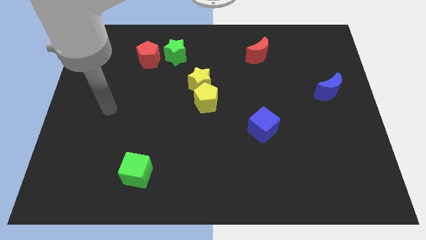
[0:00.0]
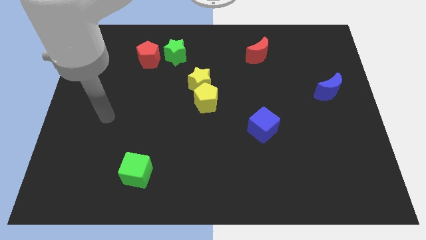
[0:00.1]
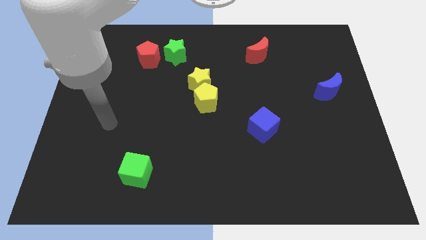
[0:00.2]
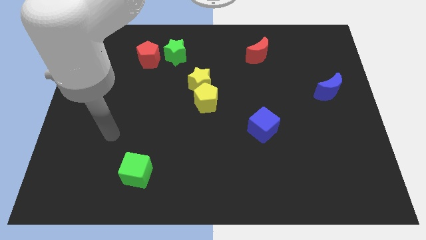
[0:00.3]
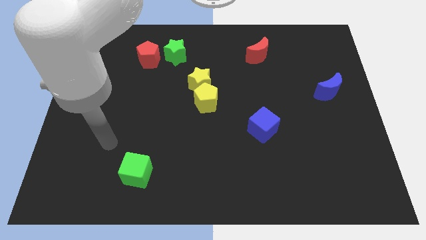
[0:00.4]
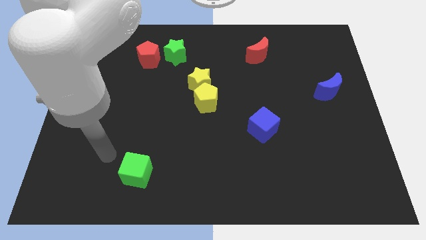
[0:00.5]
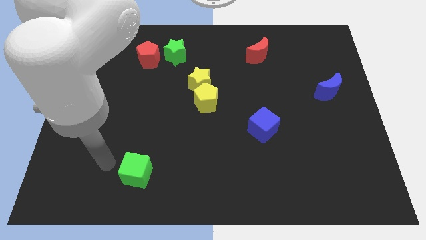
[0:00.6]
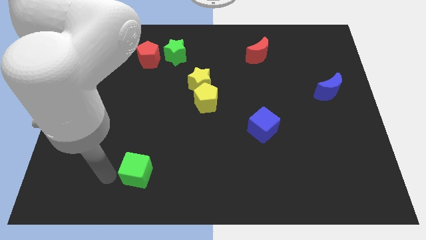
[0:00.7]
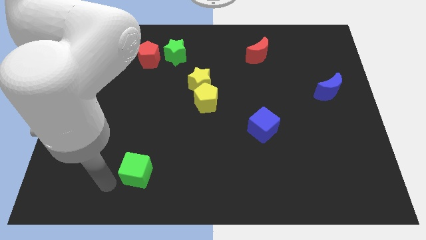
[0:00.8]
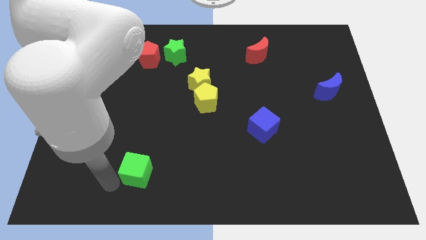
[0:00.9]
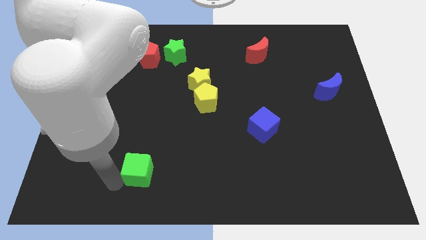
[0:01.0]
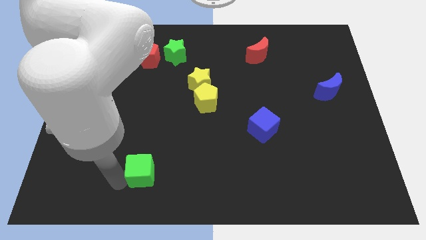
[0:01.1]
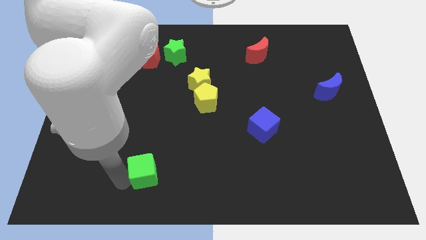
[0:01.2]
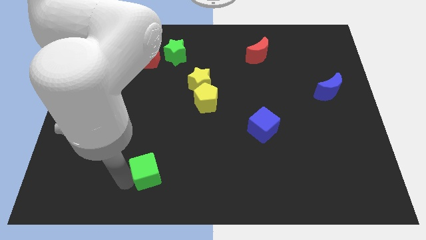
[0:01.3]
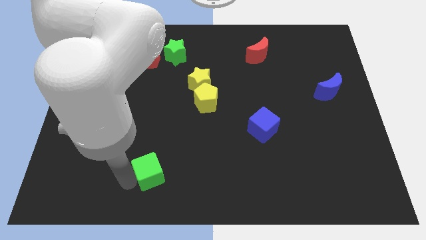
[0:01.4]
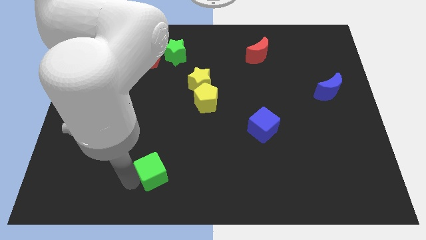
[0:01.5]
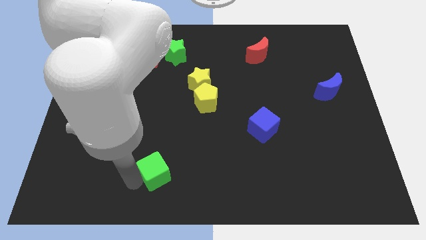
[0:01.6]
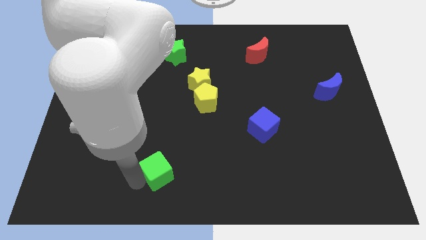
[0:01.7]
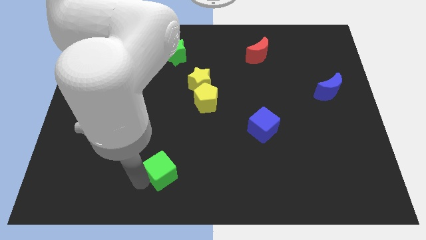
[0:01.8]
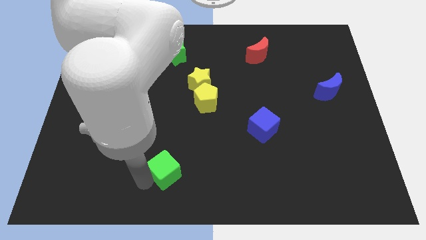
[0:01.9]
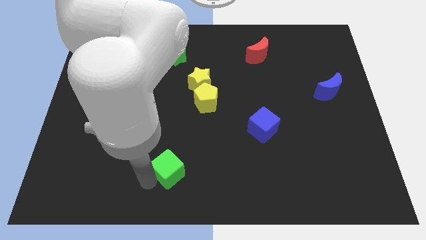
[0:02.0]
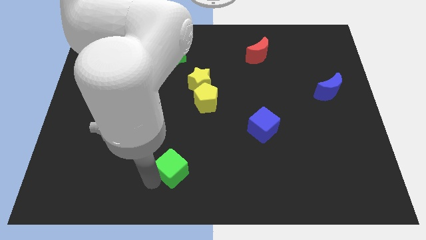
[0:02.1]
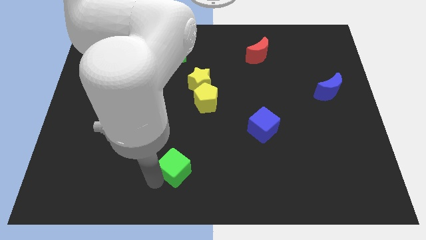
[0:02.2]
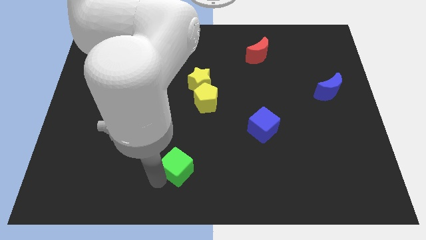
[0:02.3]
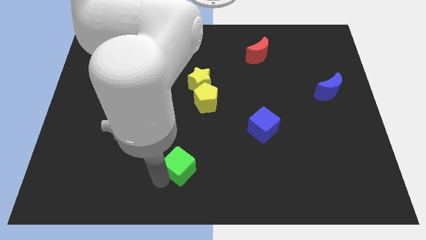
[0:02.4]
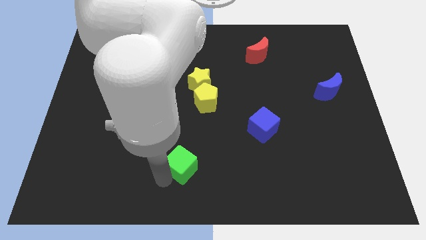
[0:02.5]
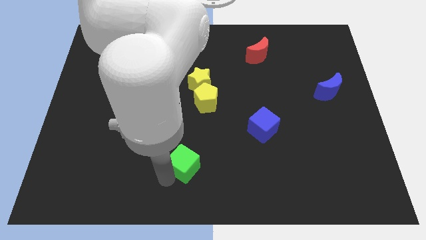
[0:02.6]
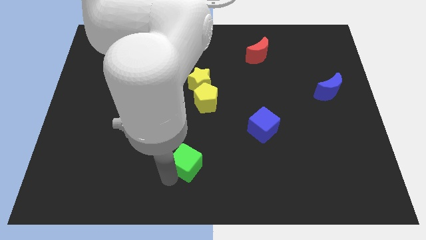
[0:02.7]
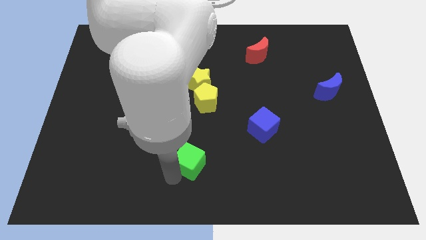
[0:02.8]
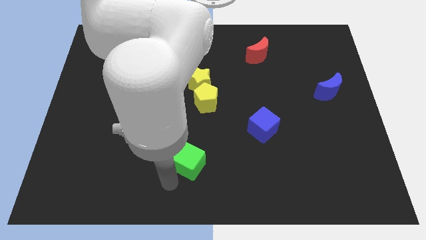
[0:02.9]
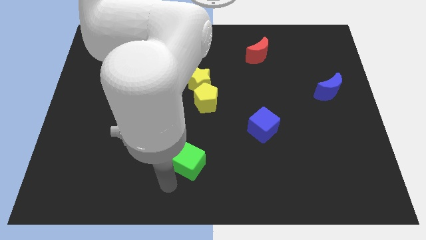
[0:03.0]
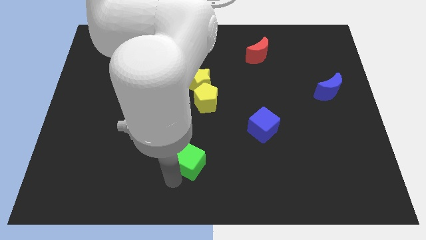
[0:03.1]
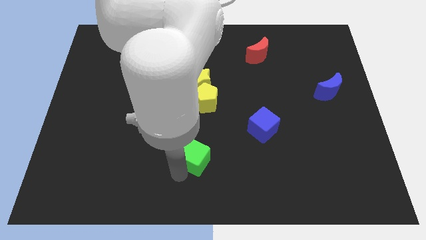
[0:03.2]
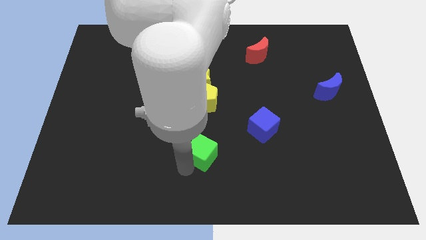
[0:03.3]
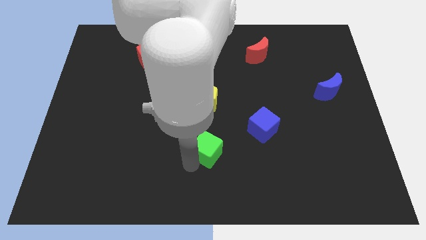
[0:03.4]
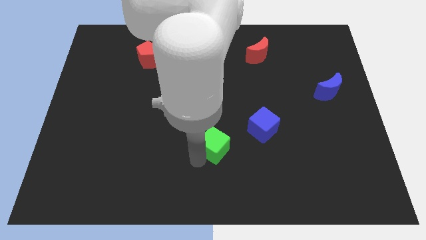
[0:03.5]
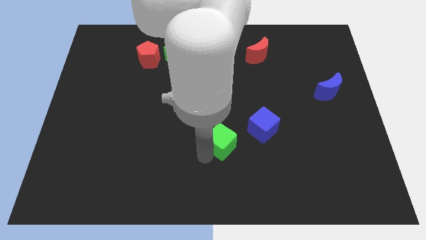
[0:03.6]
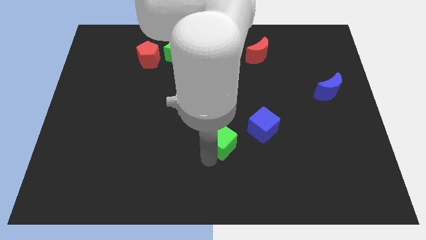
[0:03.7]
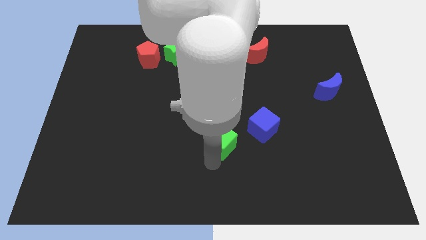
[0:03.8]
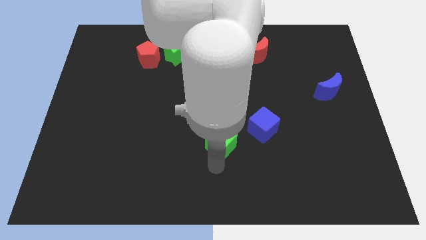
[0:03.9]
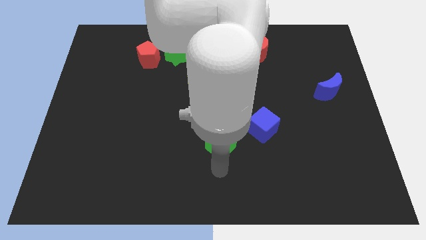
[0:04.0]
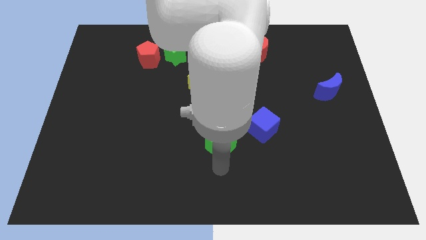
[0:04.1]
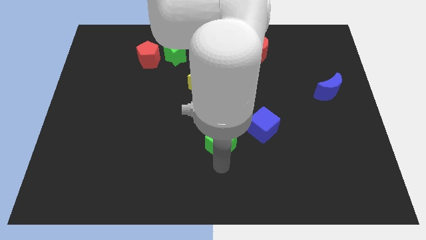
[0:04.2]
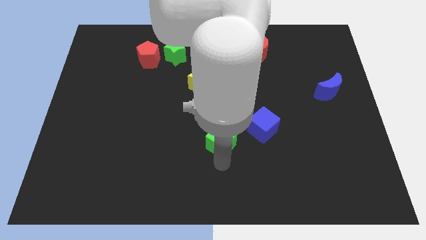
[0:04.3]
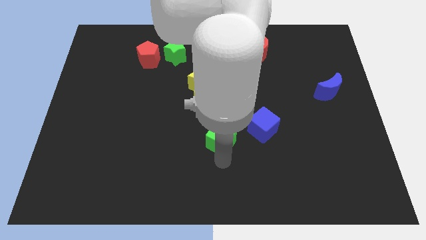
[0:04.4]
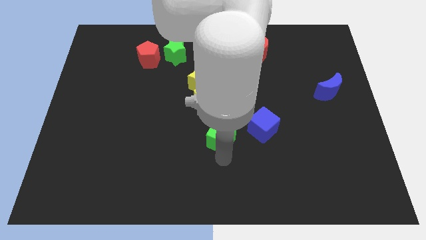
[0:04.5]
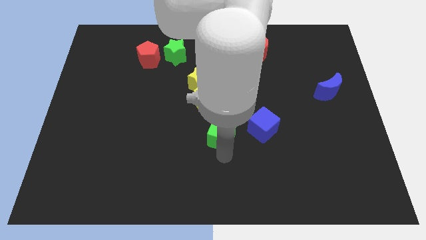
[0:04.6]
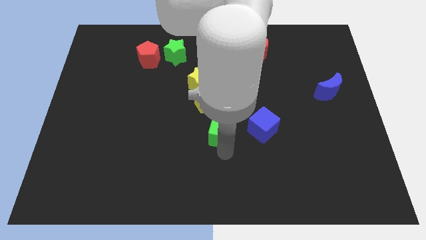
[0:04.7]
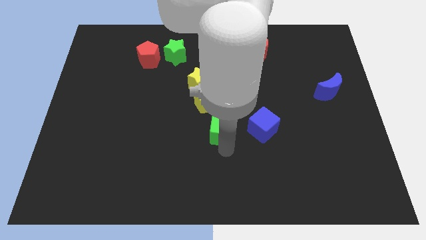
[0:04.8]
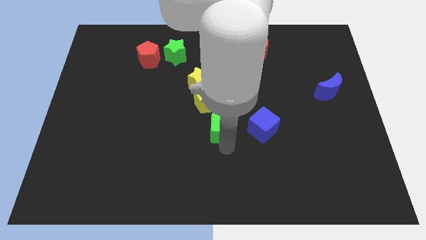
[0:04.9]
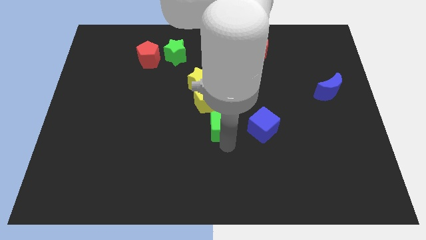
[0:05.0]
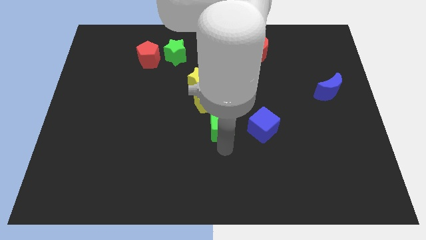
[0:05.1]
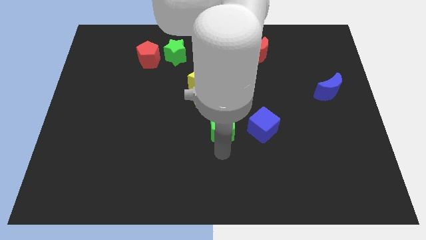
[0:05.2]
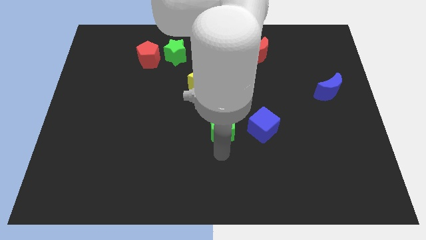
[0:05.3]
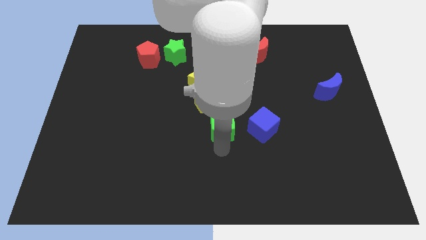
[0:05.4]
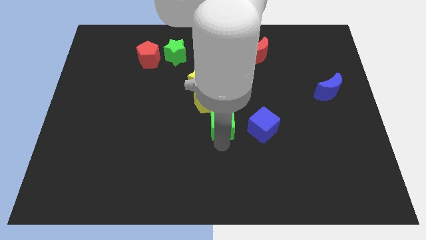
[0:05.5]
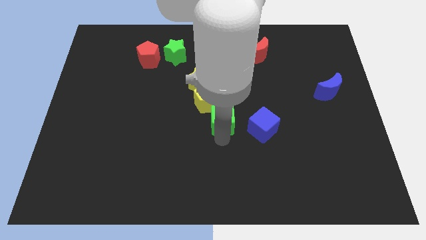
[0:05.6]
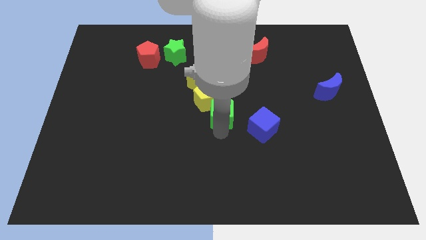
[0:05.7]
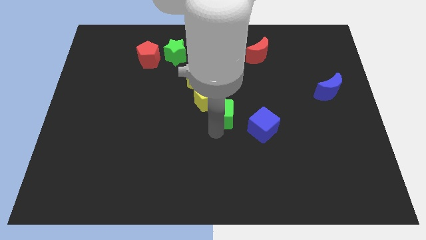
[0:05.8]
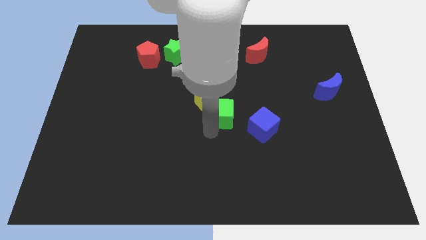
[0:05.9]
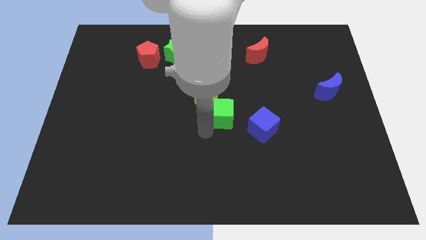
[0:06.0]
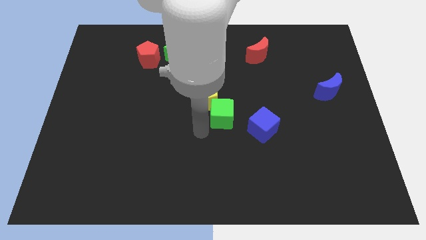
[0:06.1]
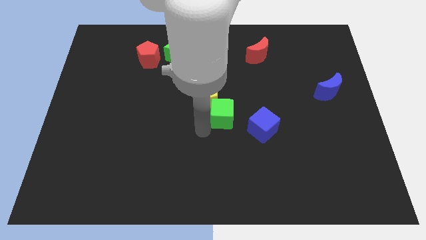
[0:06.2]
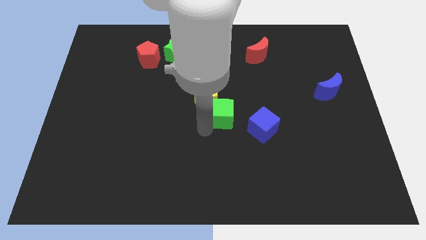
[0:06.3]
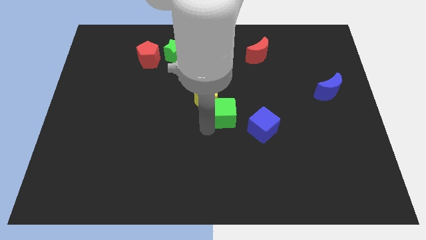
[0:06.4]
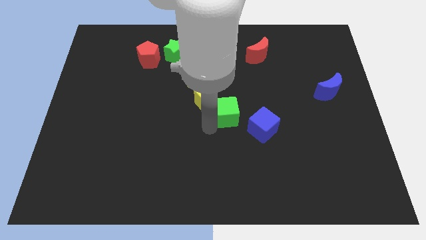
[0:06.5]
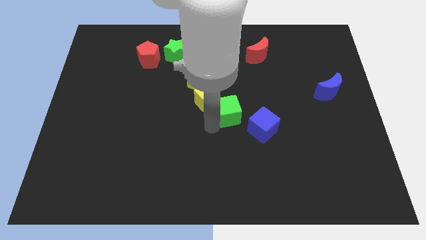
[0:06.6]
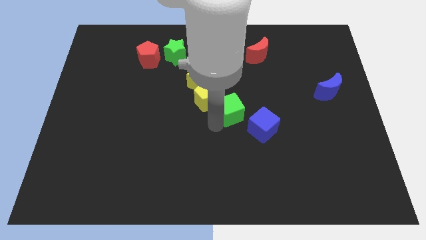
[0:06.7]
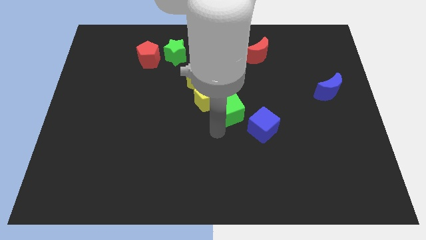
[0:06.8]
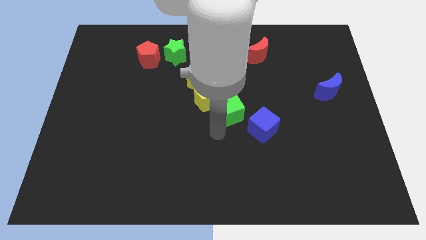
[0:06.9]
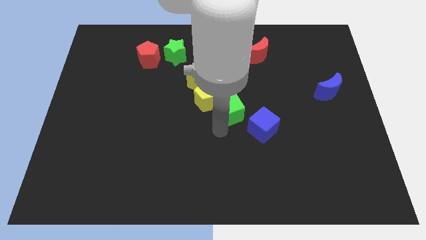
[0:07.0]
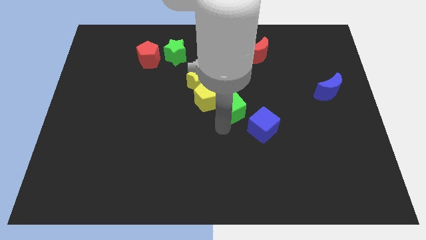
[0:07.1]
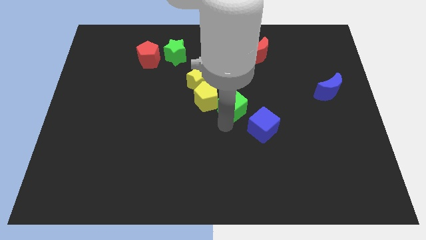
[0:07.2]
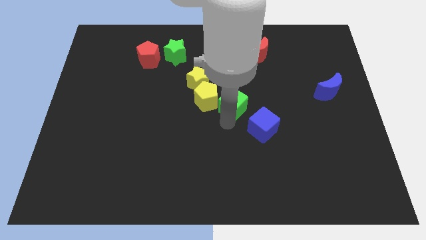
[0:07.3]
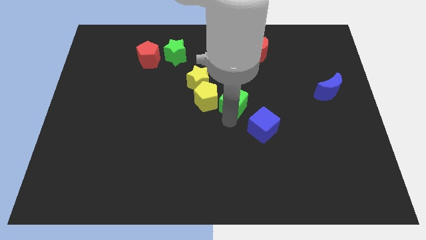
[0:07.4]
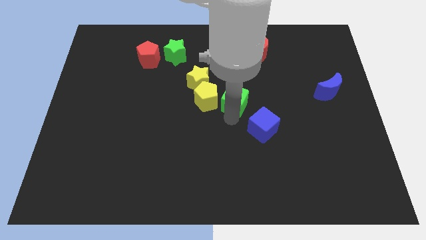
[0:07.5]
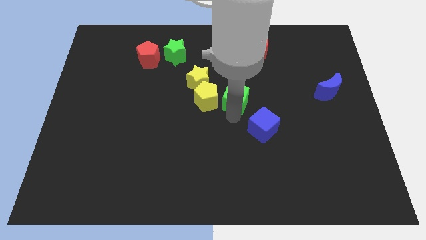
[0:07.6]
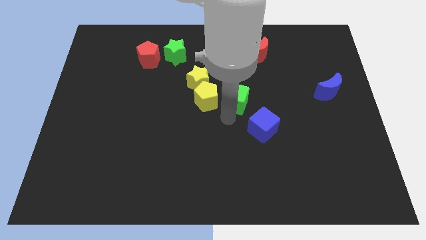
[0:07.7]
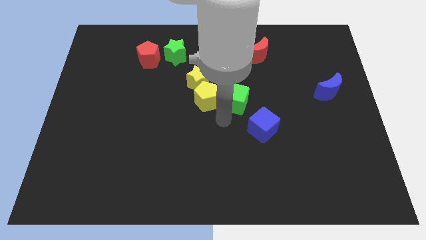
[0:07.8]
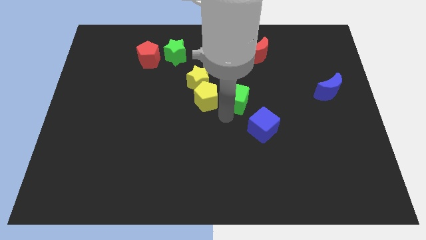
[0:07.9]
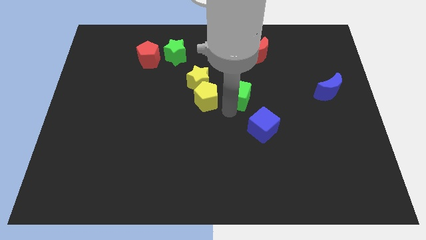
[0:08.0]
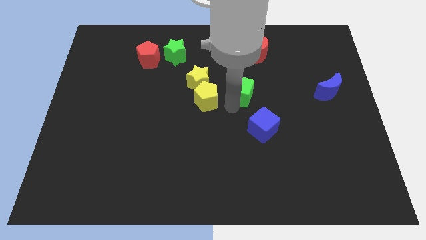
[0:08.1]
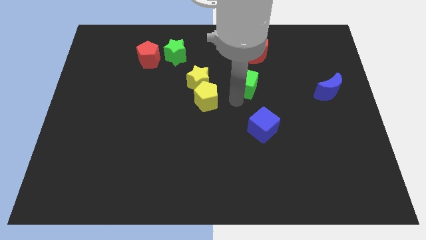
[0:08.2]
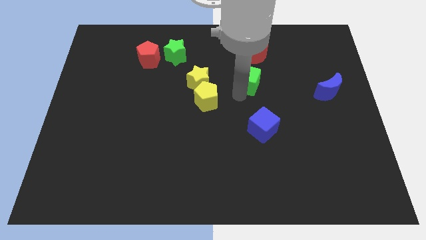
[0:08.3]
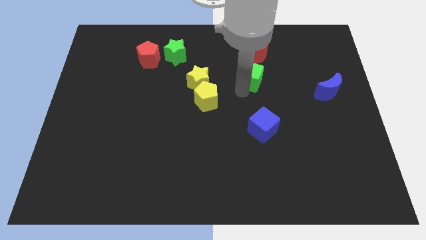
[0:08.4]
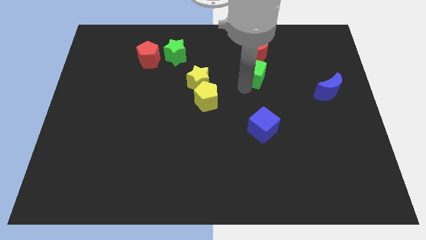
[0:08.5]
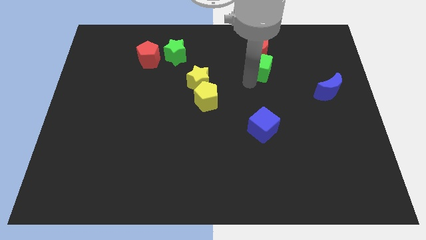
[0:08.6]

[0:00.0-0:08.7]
push the green cube close to the red moon
